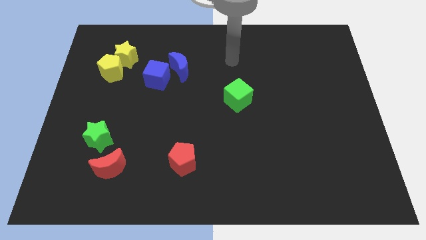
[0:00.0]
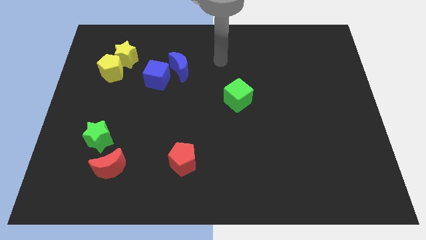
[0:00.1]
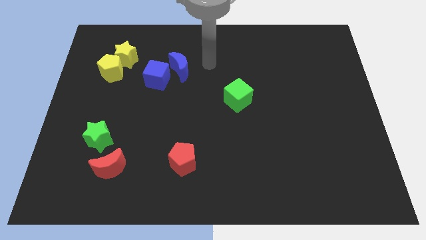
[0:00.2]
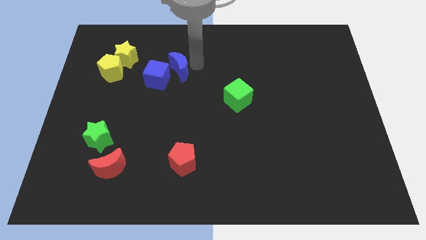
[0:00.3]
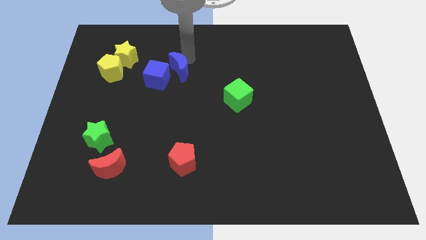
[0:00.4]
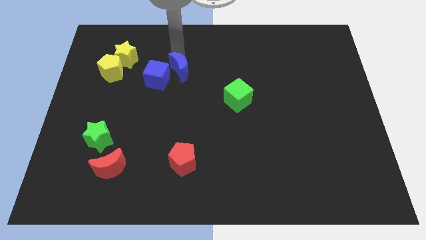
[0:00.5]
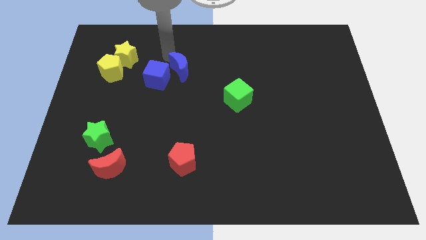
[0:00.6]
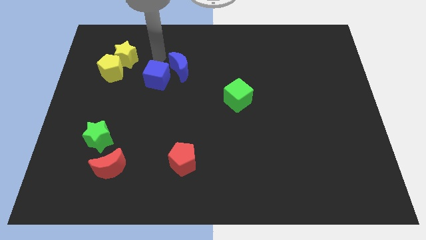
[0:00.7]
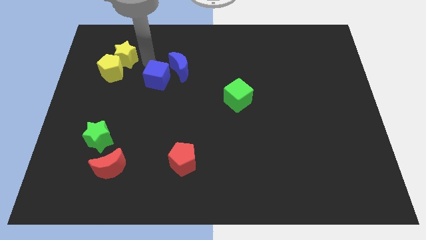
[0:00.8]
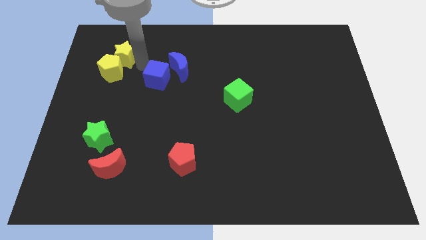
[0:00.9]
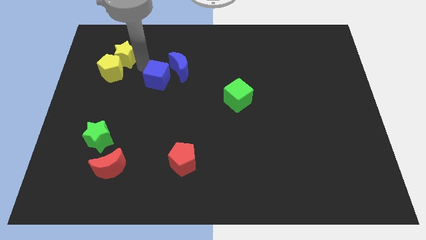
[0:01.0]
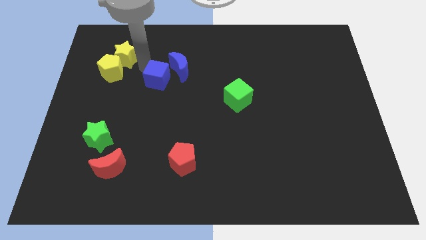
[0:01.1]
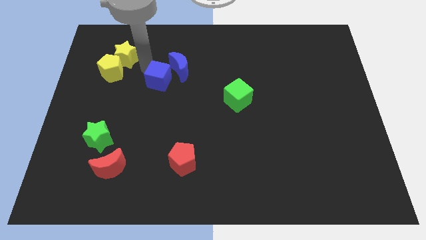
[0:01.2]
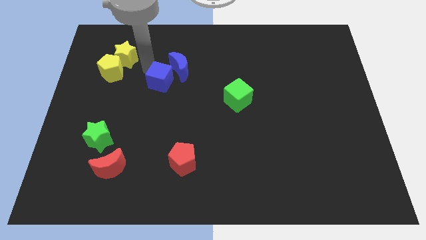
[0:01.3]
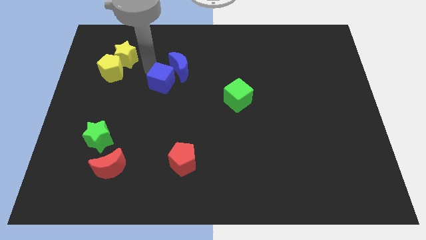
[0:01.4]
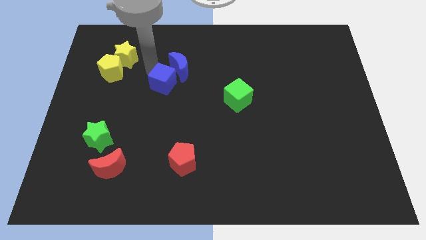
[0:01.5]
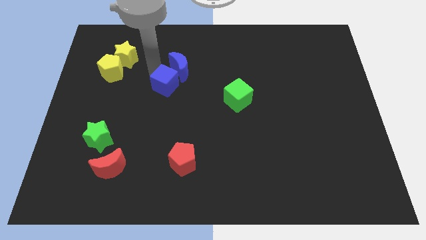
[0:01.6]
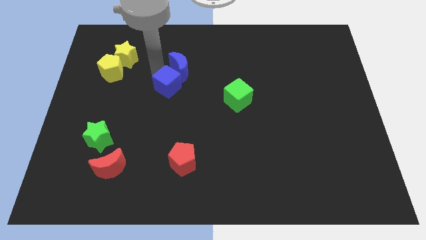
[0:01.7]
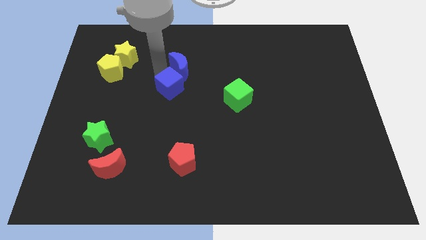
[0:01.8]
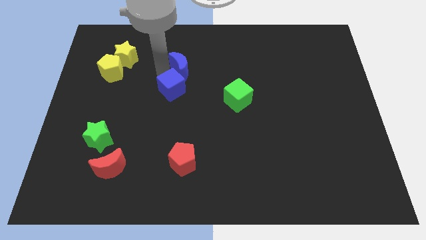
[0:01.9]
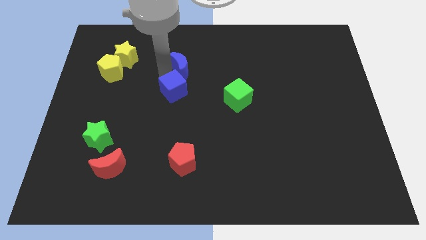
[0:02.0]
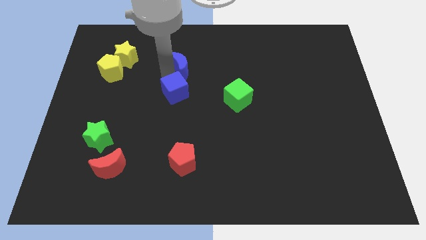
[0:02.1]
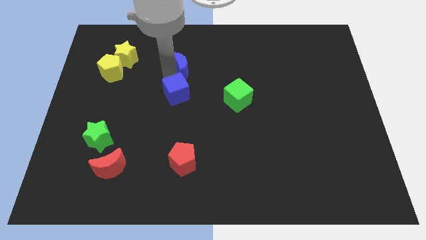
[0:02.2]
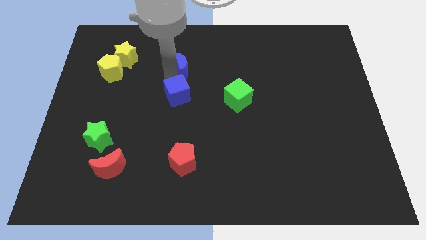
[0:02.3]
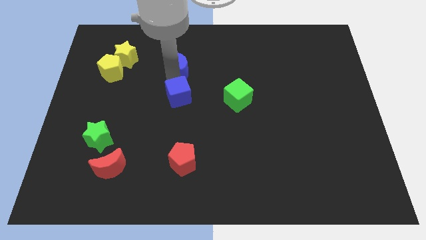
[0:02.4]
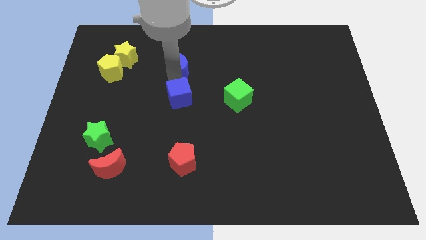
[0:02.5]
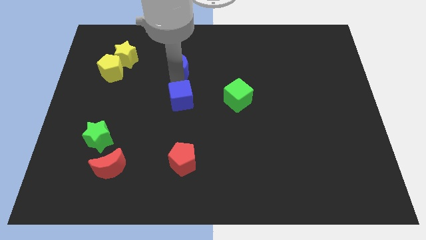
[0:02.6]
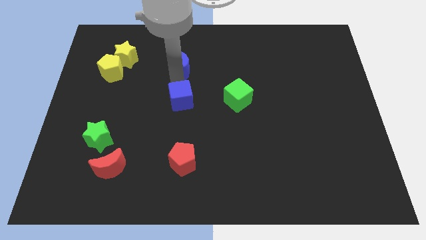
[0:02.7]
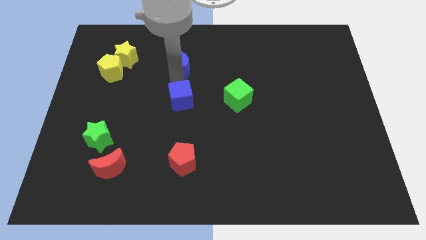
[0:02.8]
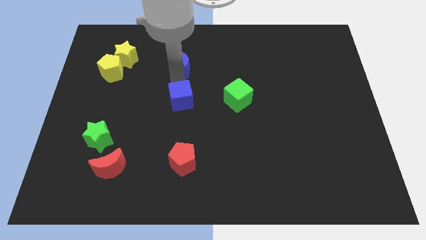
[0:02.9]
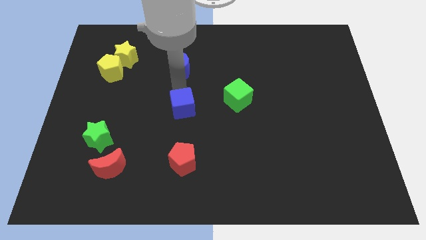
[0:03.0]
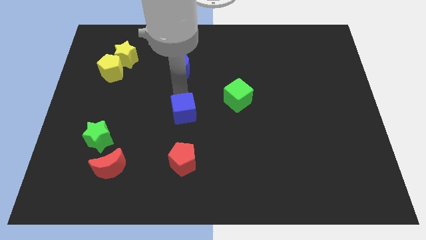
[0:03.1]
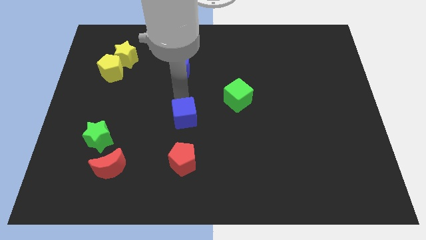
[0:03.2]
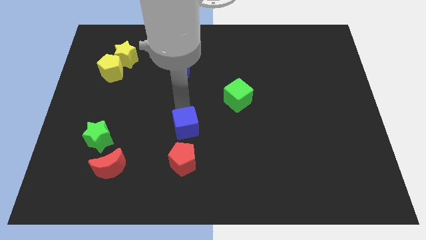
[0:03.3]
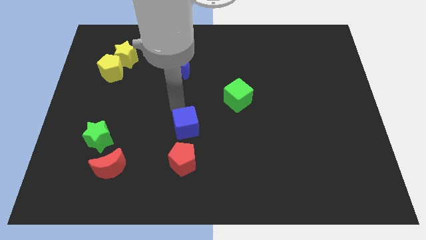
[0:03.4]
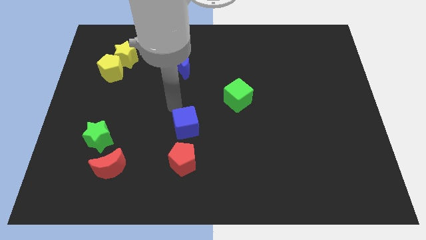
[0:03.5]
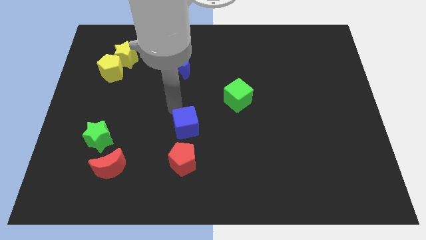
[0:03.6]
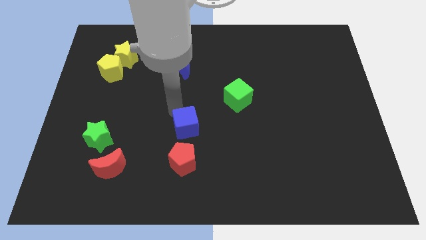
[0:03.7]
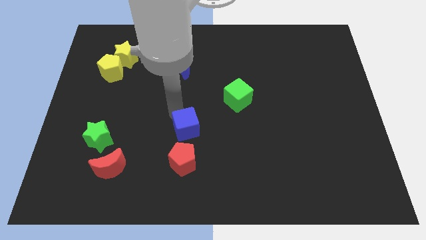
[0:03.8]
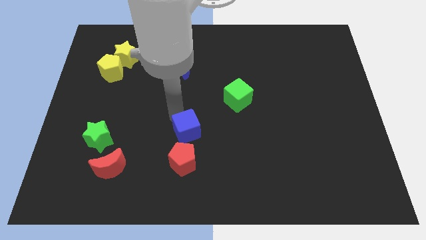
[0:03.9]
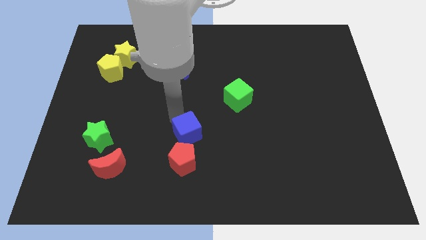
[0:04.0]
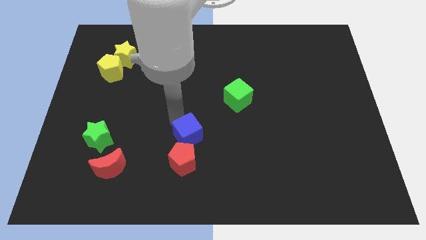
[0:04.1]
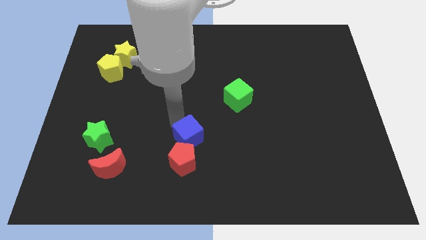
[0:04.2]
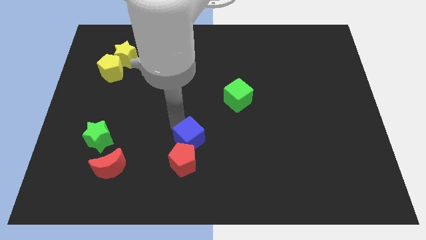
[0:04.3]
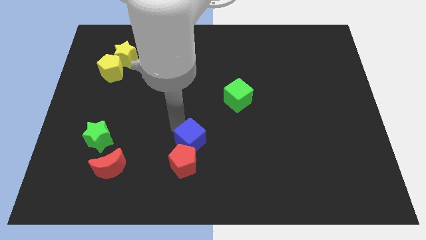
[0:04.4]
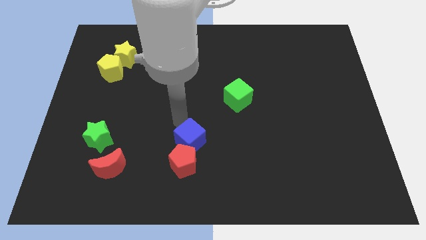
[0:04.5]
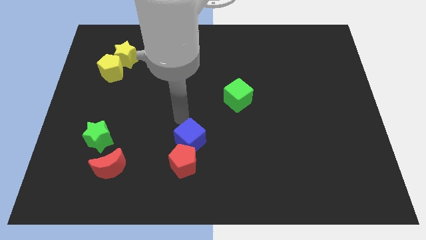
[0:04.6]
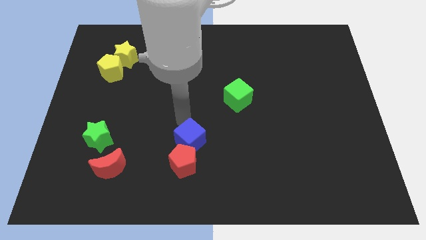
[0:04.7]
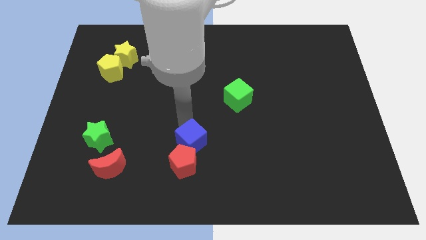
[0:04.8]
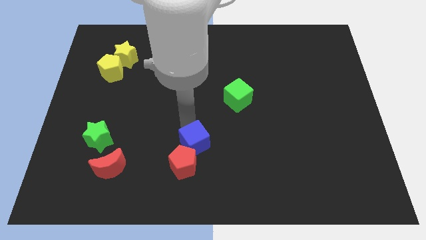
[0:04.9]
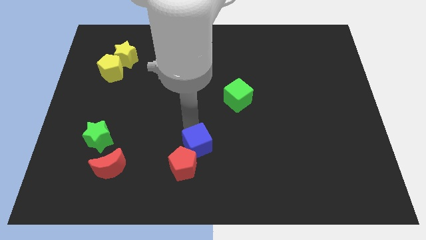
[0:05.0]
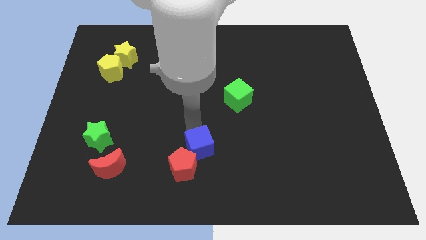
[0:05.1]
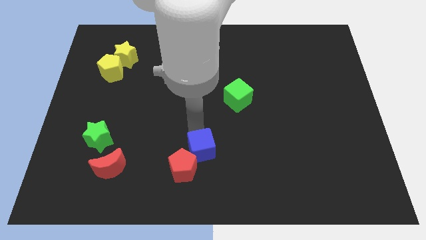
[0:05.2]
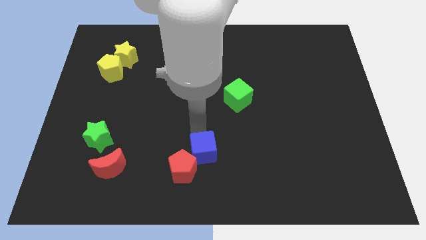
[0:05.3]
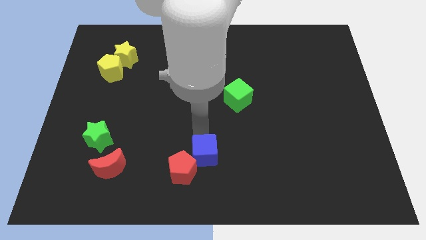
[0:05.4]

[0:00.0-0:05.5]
slide the blue cube to the bottom

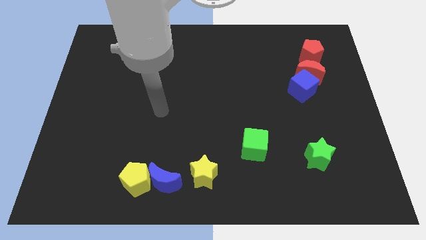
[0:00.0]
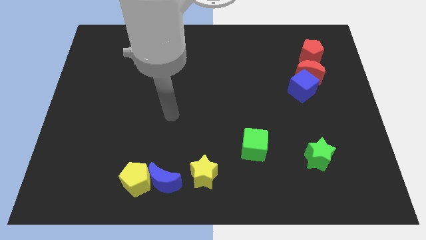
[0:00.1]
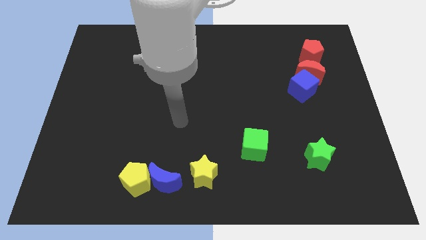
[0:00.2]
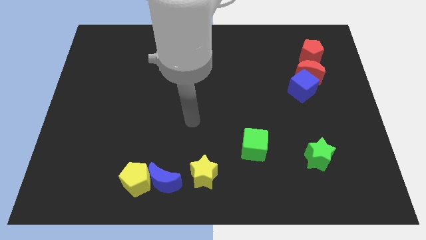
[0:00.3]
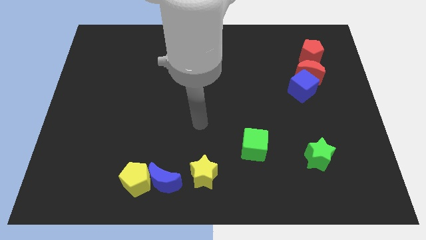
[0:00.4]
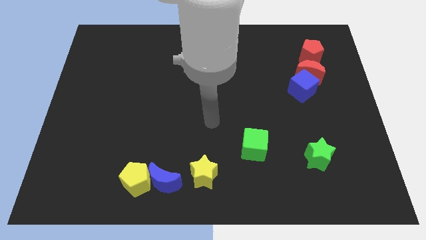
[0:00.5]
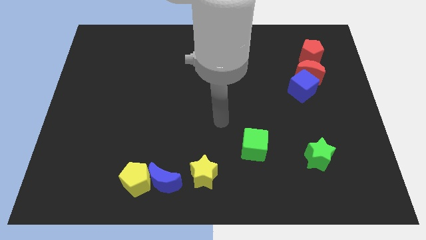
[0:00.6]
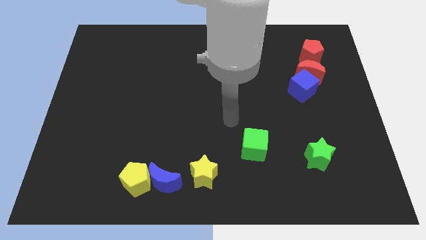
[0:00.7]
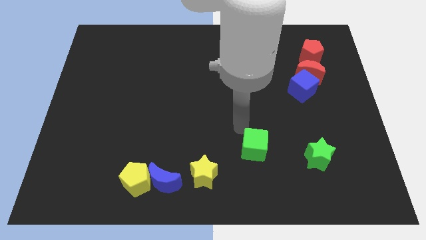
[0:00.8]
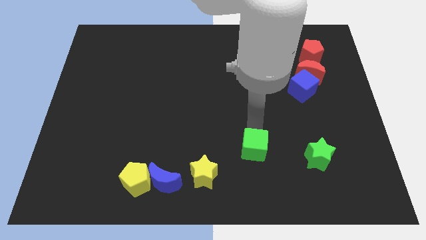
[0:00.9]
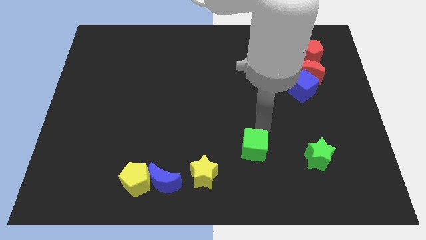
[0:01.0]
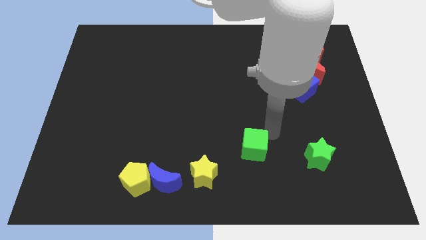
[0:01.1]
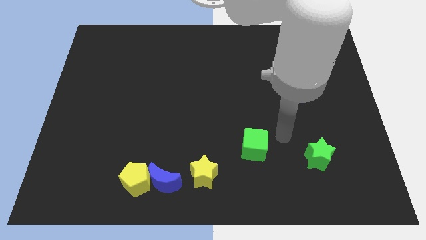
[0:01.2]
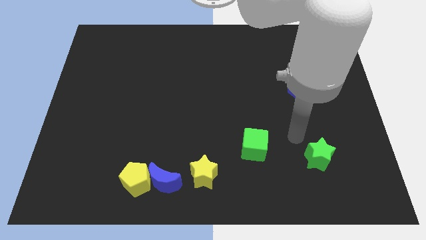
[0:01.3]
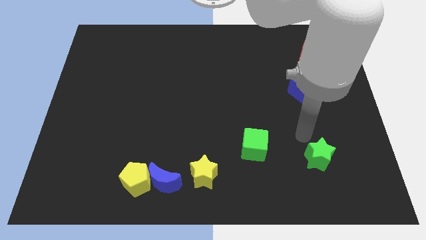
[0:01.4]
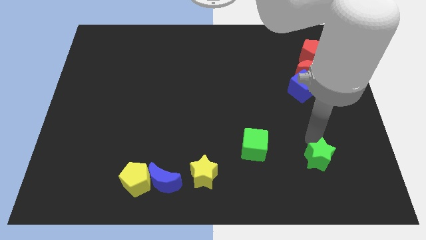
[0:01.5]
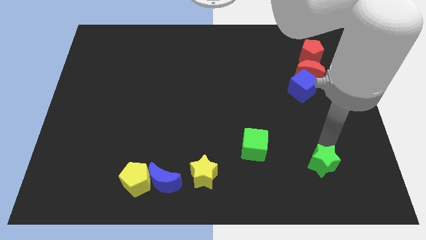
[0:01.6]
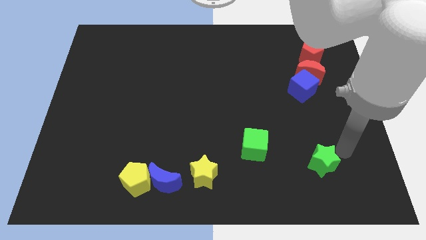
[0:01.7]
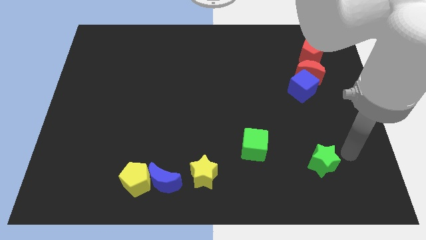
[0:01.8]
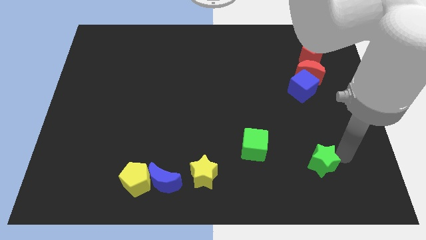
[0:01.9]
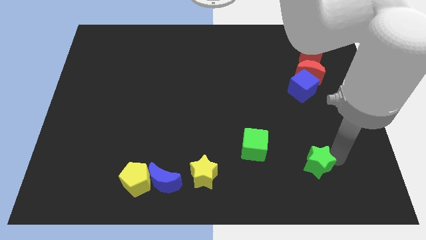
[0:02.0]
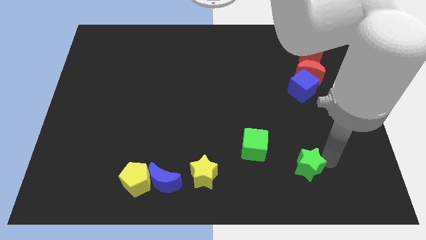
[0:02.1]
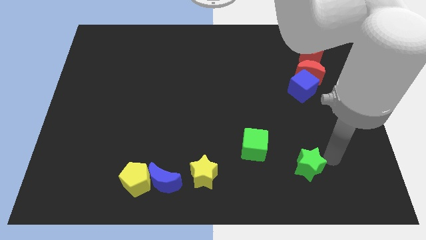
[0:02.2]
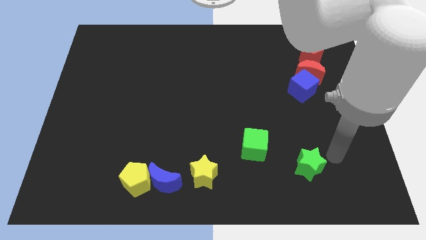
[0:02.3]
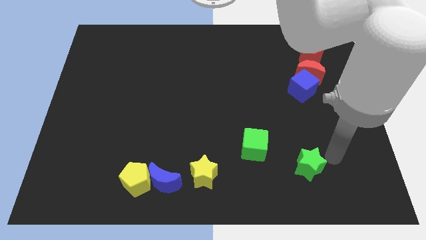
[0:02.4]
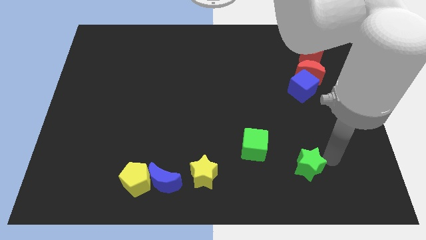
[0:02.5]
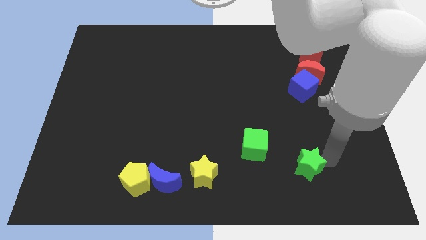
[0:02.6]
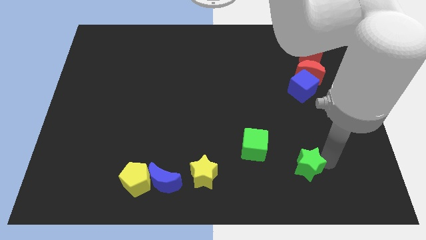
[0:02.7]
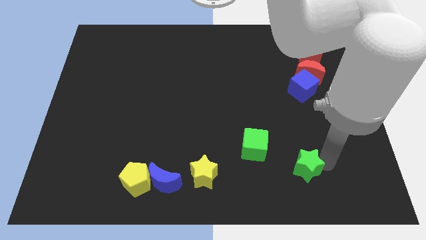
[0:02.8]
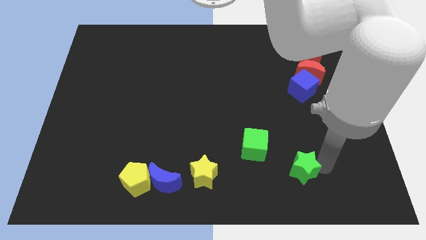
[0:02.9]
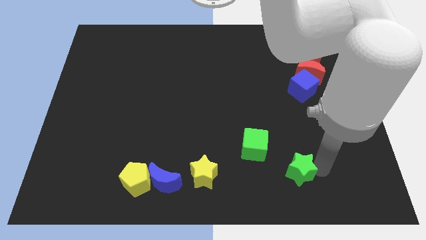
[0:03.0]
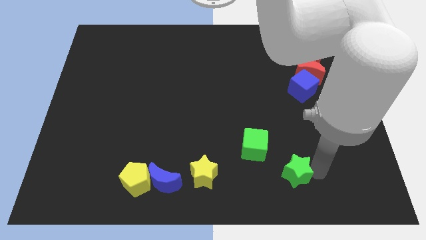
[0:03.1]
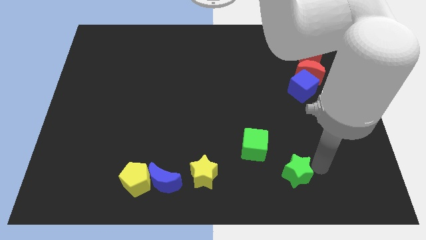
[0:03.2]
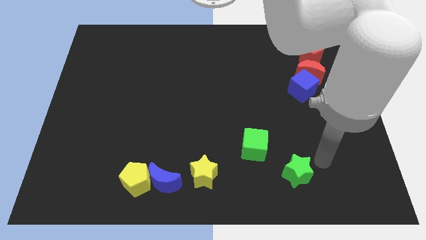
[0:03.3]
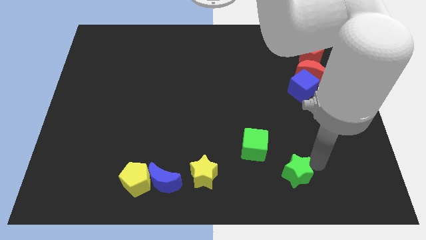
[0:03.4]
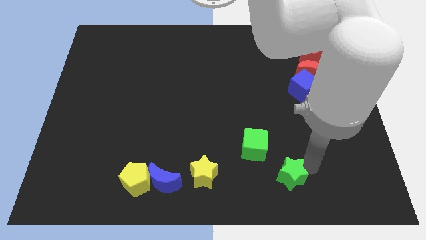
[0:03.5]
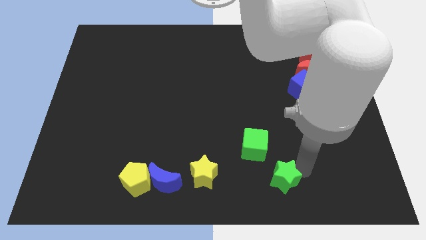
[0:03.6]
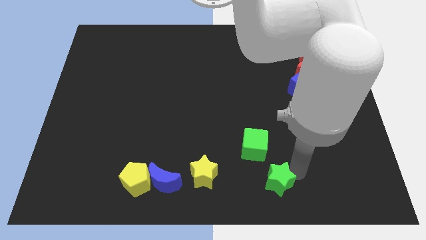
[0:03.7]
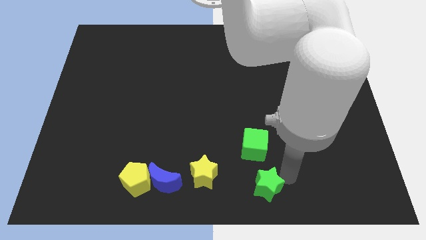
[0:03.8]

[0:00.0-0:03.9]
put the green star to the bottom side
